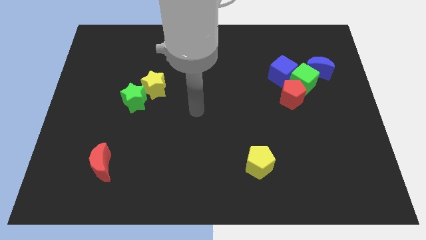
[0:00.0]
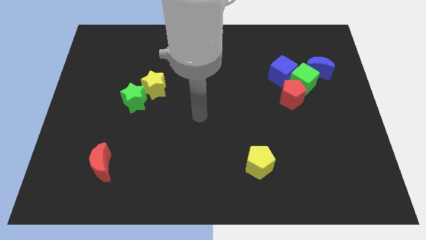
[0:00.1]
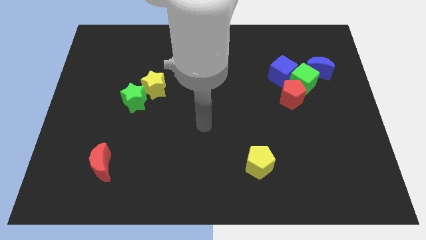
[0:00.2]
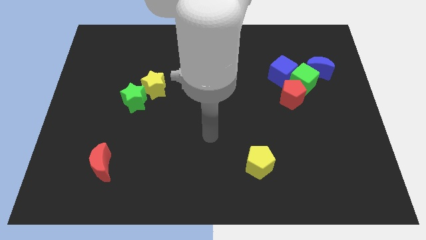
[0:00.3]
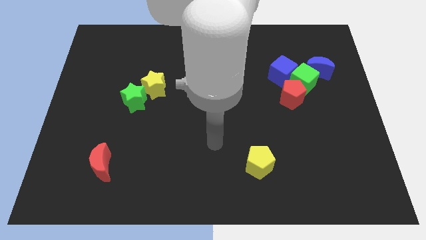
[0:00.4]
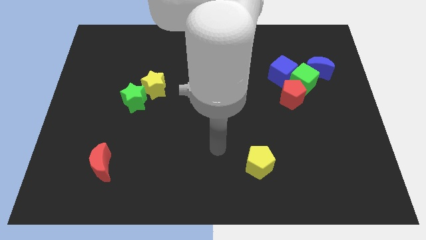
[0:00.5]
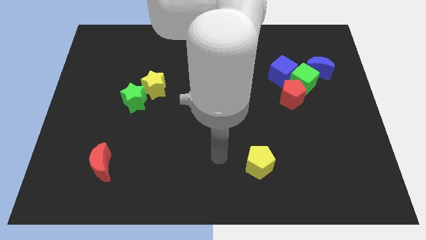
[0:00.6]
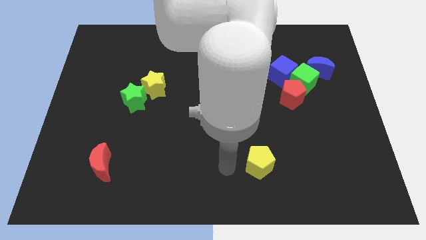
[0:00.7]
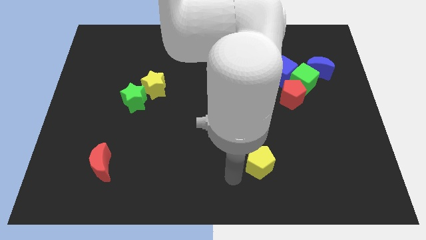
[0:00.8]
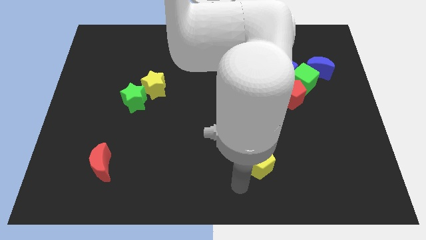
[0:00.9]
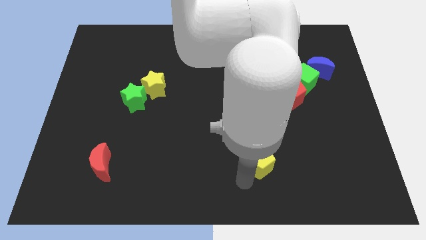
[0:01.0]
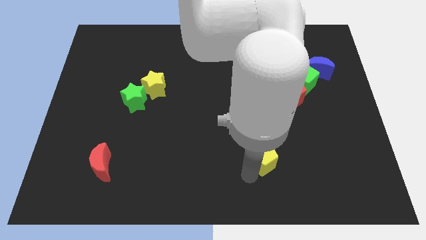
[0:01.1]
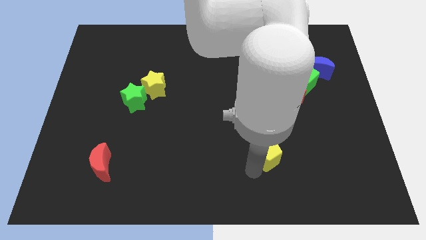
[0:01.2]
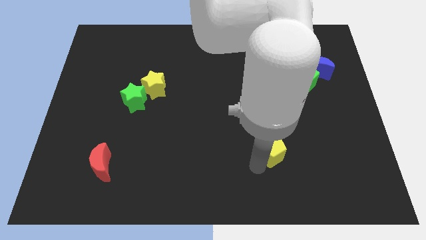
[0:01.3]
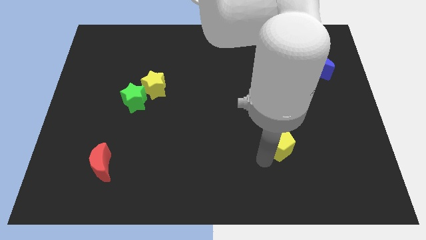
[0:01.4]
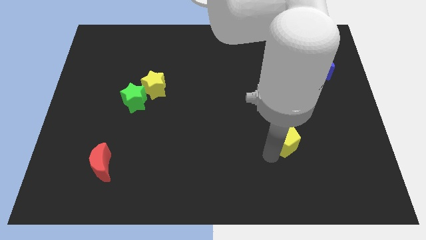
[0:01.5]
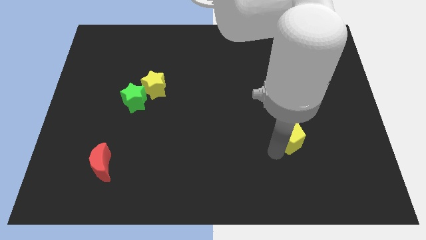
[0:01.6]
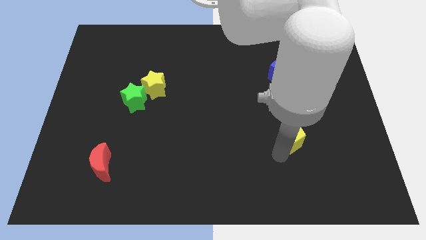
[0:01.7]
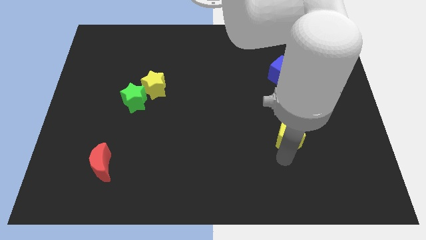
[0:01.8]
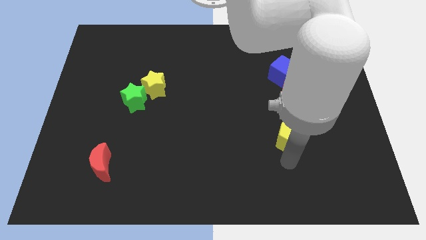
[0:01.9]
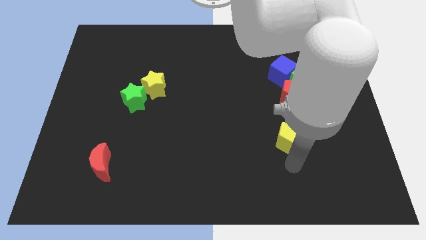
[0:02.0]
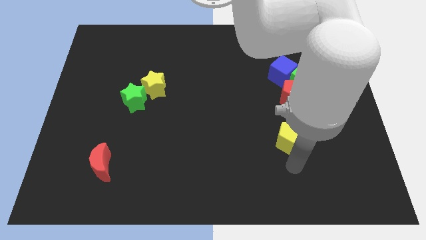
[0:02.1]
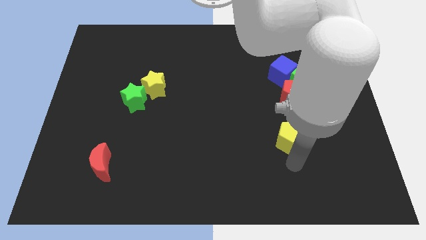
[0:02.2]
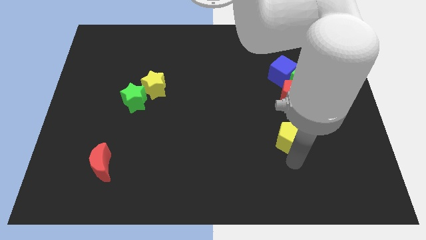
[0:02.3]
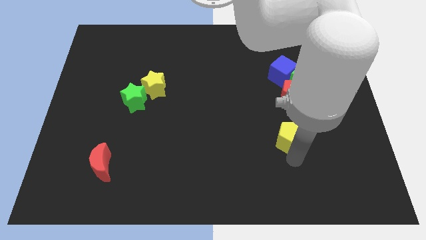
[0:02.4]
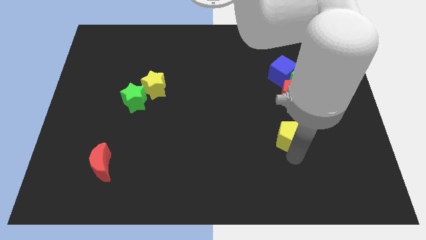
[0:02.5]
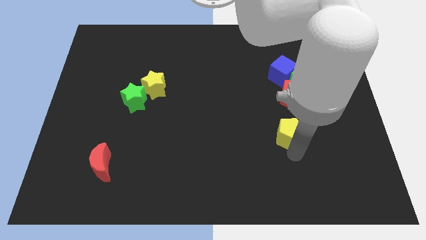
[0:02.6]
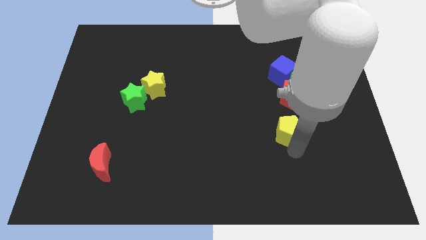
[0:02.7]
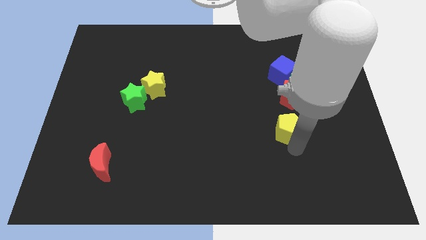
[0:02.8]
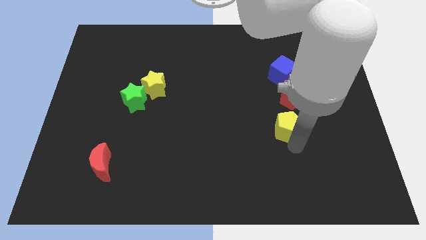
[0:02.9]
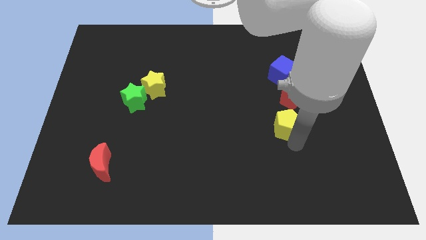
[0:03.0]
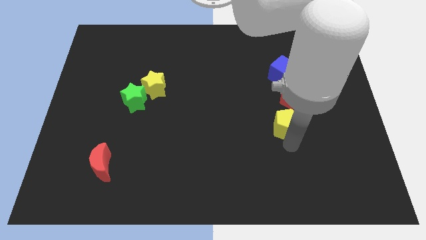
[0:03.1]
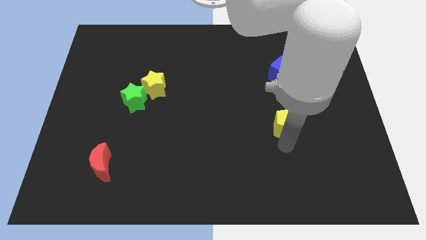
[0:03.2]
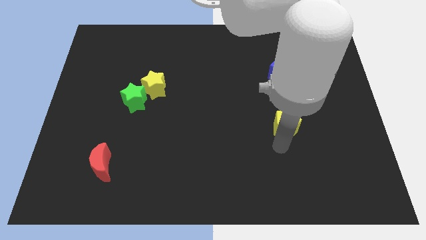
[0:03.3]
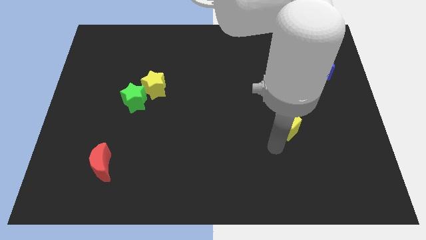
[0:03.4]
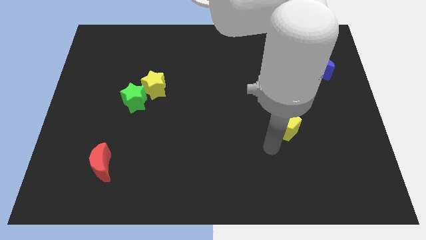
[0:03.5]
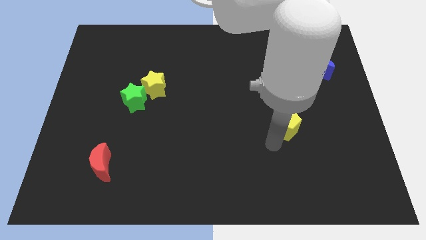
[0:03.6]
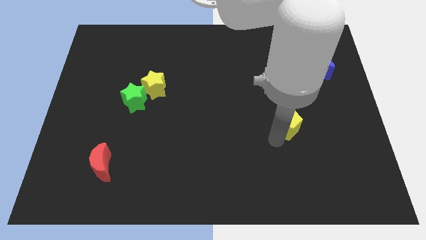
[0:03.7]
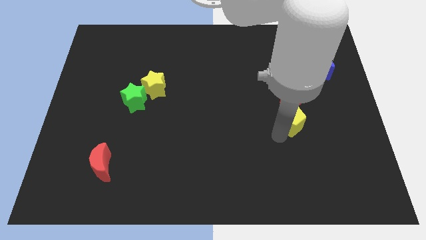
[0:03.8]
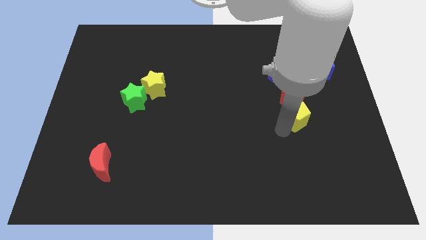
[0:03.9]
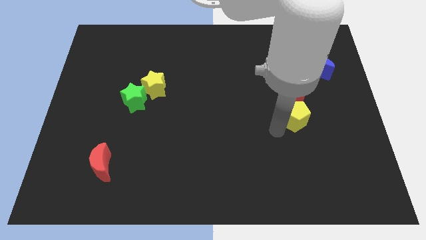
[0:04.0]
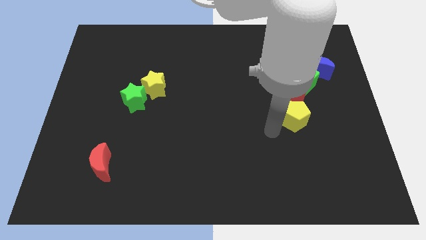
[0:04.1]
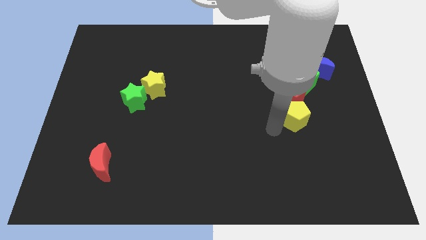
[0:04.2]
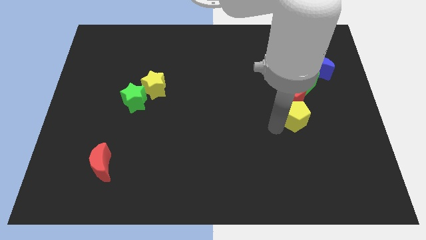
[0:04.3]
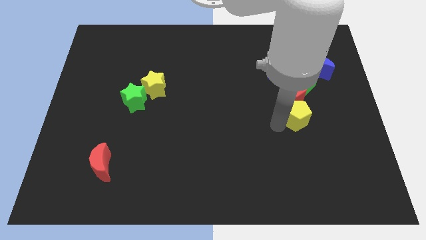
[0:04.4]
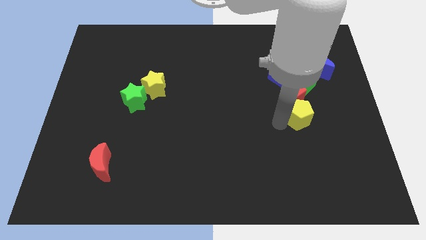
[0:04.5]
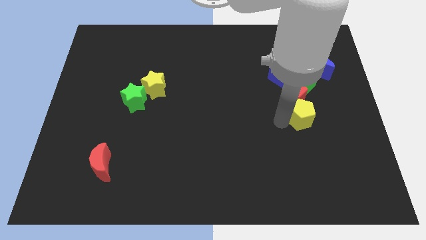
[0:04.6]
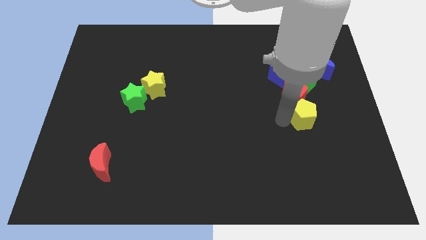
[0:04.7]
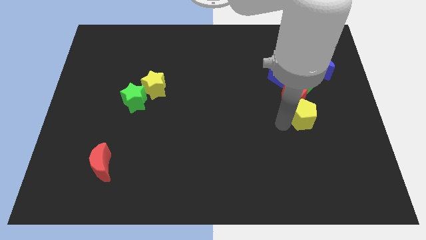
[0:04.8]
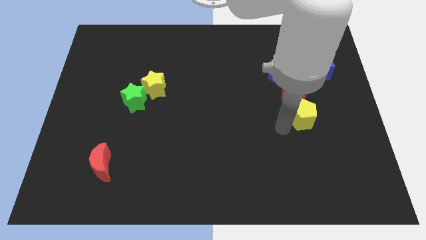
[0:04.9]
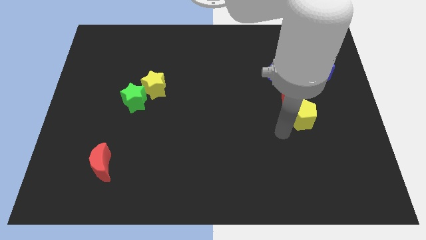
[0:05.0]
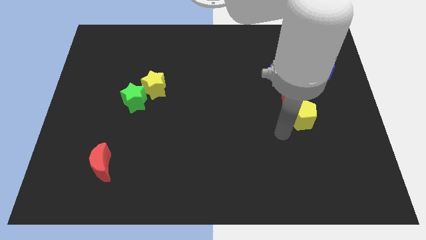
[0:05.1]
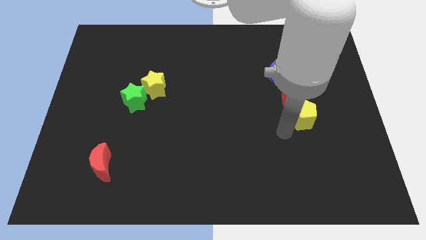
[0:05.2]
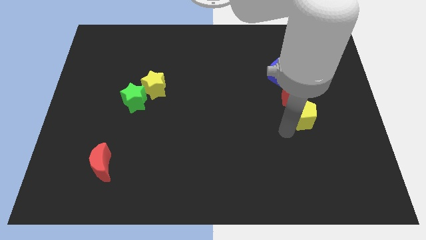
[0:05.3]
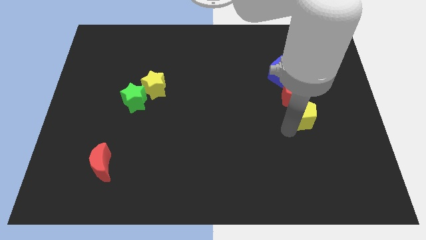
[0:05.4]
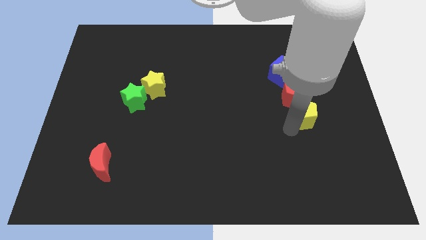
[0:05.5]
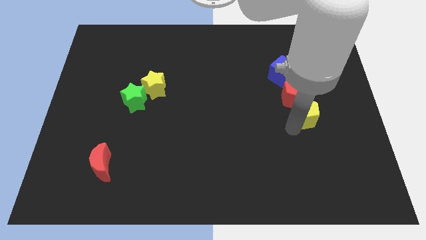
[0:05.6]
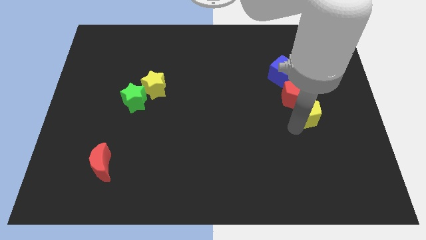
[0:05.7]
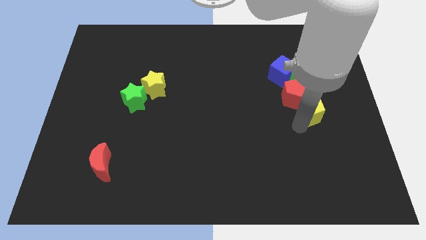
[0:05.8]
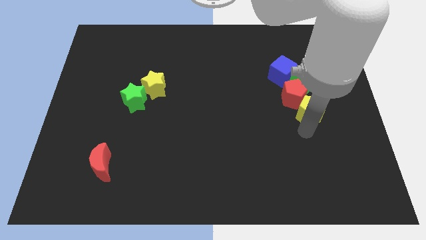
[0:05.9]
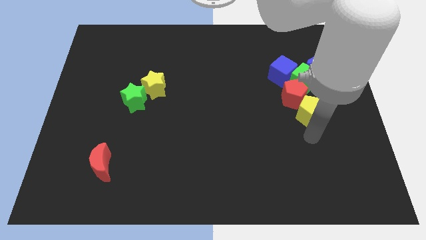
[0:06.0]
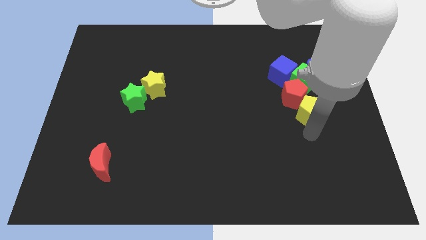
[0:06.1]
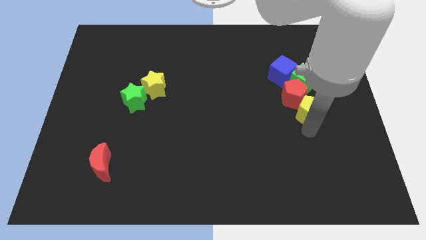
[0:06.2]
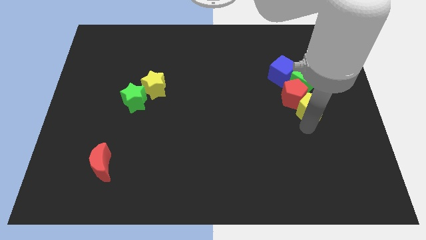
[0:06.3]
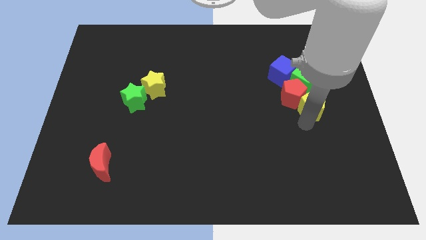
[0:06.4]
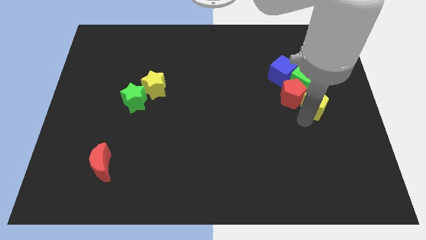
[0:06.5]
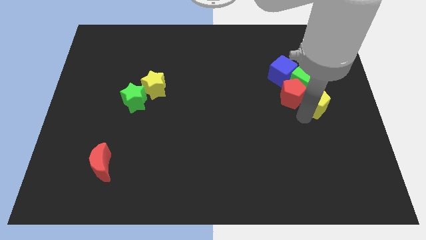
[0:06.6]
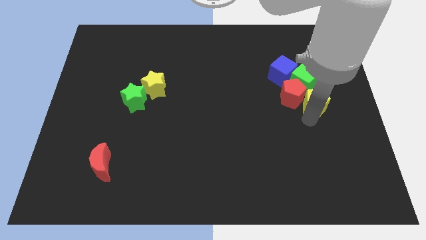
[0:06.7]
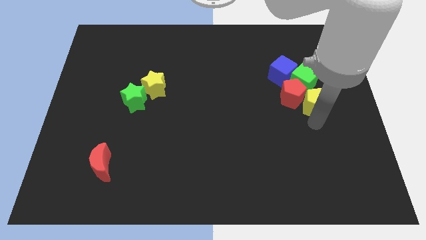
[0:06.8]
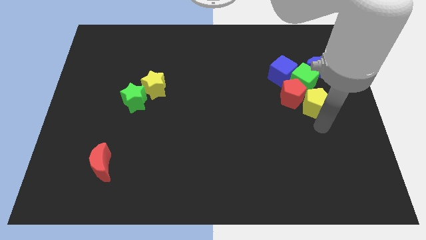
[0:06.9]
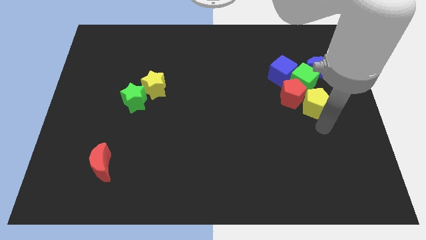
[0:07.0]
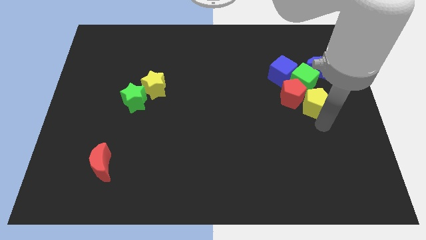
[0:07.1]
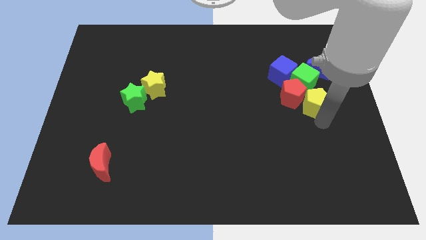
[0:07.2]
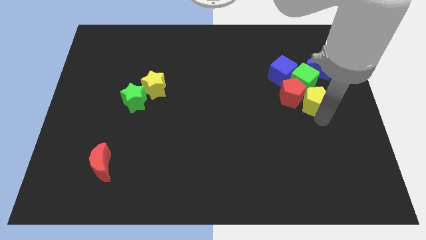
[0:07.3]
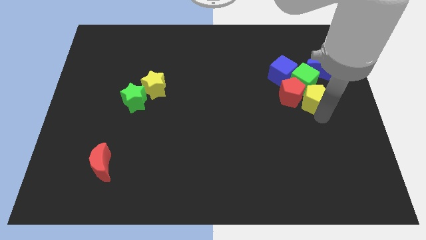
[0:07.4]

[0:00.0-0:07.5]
push the yellow pentagon next to the green cube
